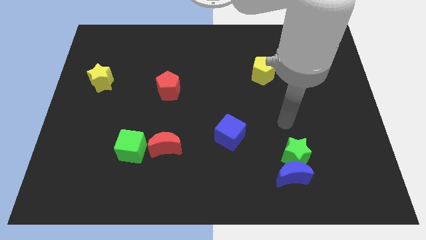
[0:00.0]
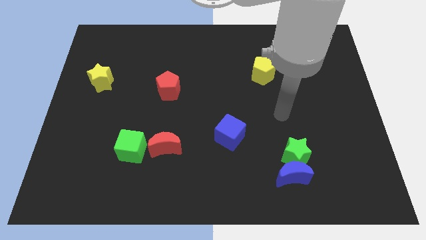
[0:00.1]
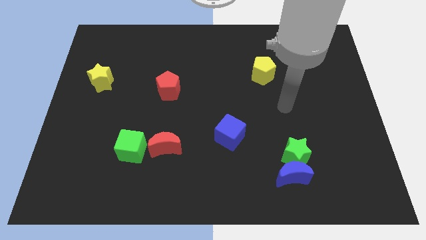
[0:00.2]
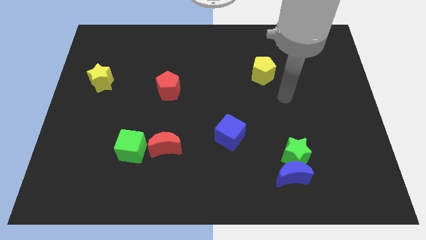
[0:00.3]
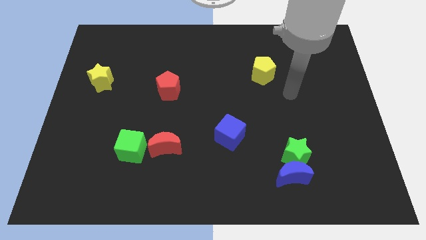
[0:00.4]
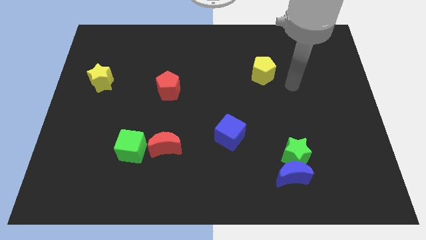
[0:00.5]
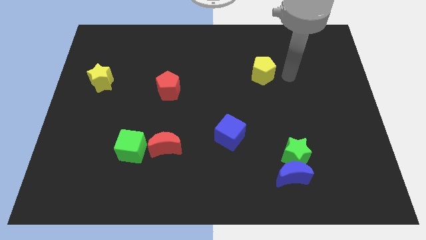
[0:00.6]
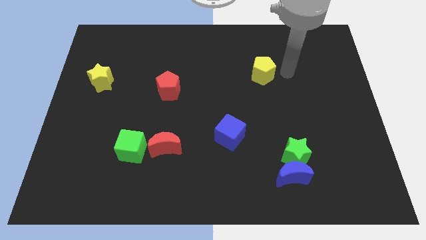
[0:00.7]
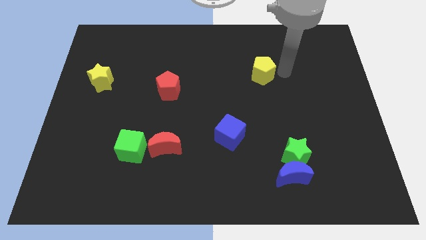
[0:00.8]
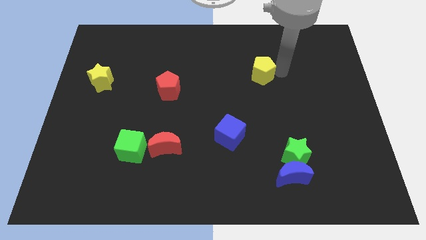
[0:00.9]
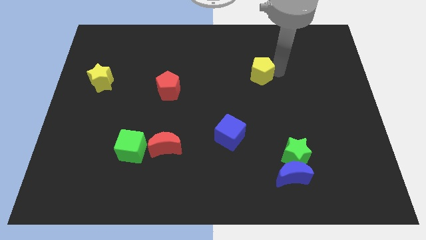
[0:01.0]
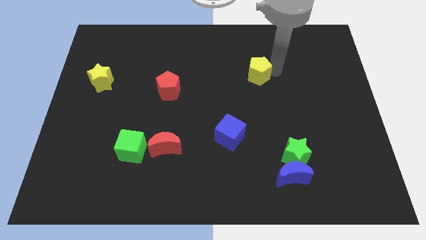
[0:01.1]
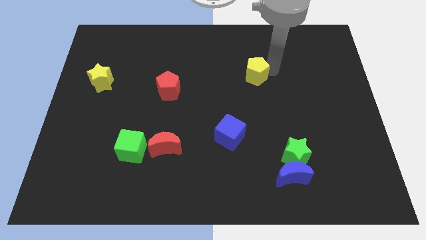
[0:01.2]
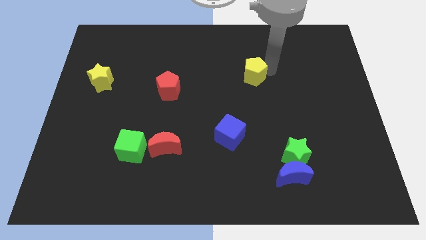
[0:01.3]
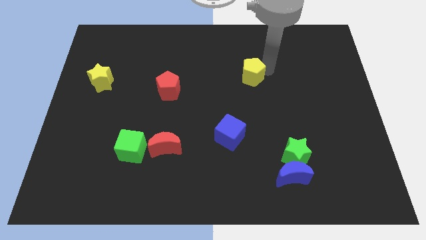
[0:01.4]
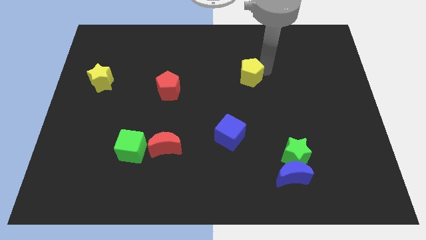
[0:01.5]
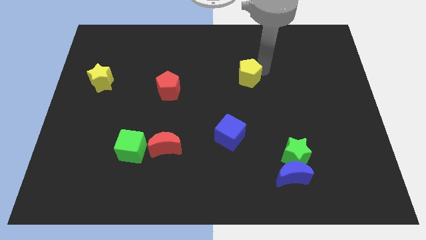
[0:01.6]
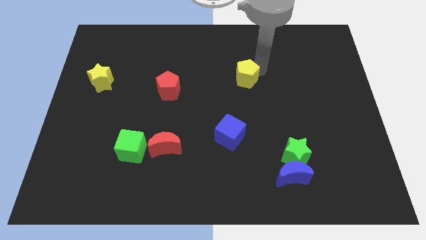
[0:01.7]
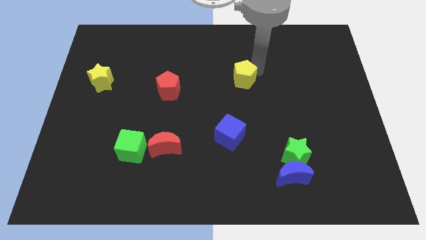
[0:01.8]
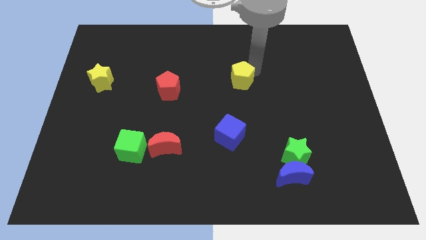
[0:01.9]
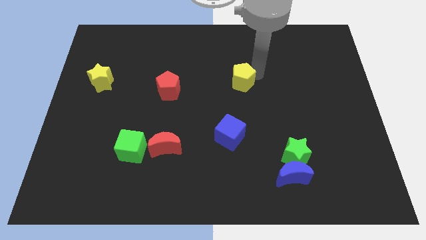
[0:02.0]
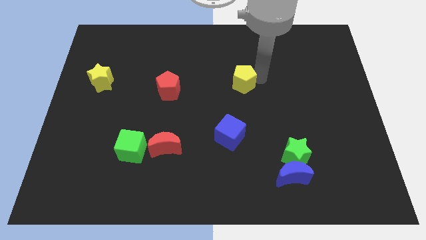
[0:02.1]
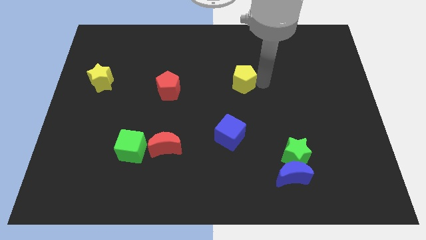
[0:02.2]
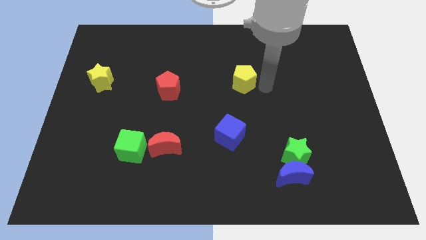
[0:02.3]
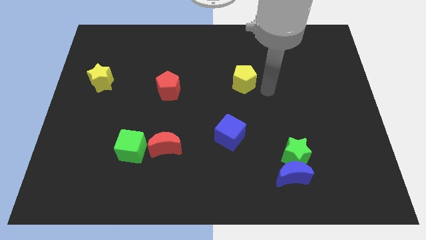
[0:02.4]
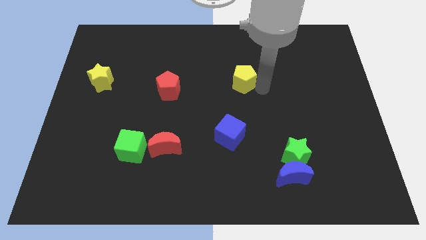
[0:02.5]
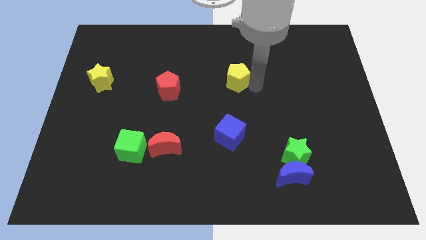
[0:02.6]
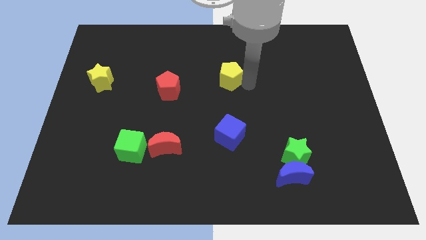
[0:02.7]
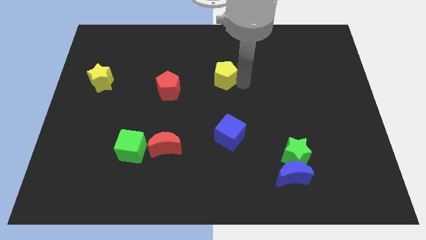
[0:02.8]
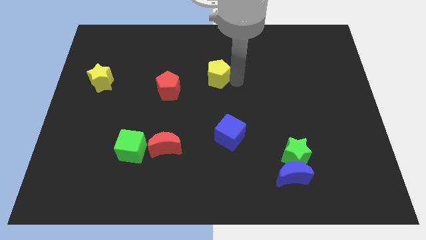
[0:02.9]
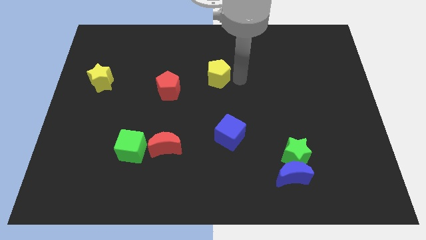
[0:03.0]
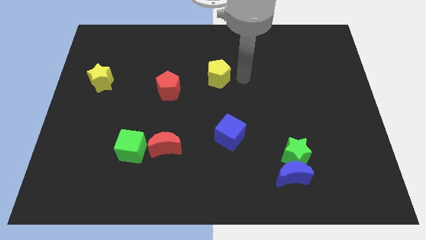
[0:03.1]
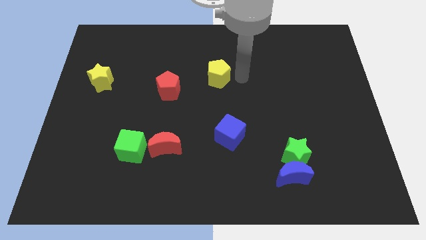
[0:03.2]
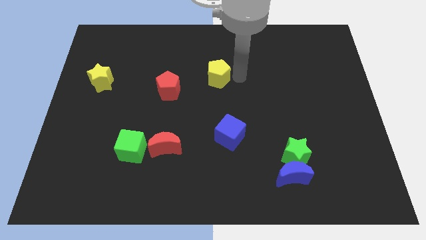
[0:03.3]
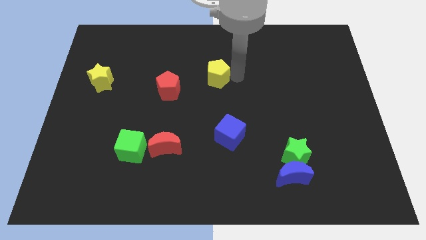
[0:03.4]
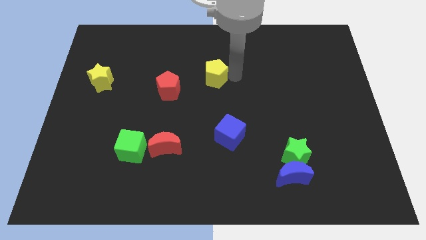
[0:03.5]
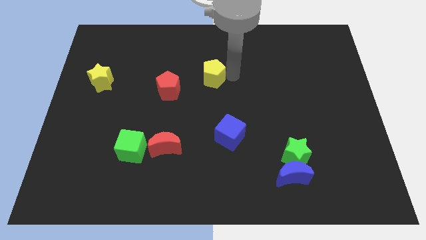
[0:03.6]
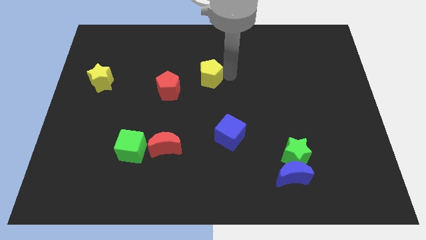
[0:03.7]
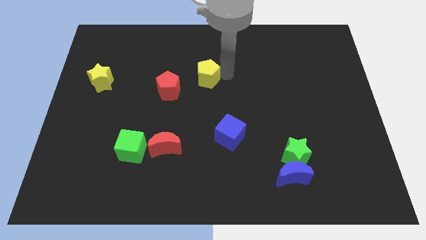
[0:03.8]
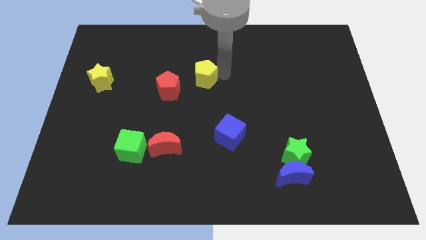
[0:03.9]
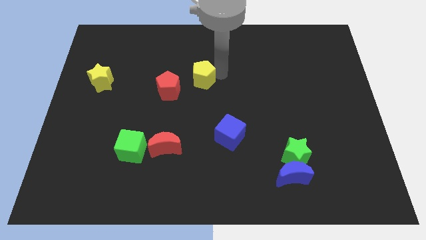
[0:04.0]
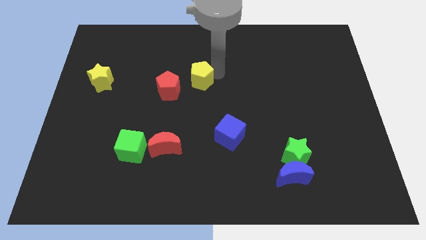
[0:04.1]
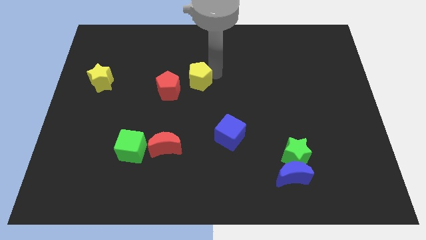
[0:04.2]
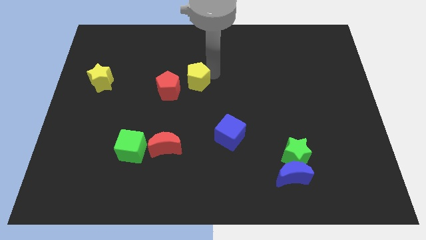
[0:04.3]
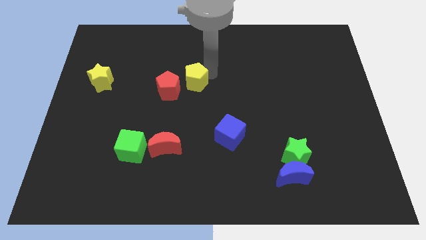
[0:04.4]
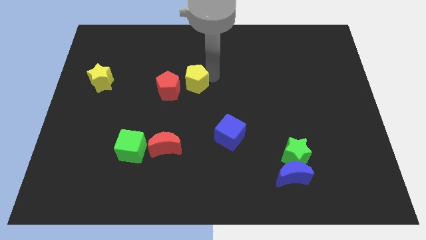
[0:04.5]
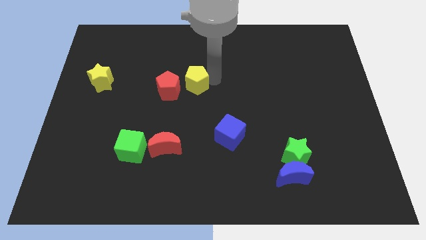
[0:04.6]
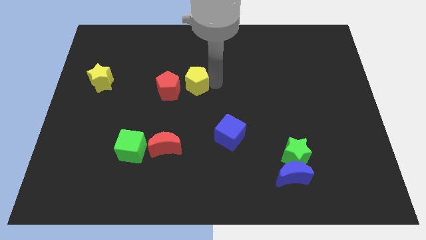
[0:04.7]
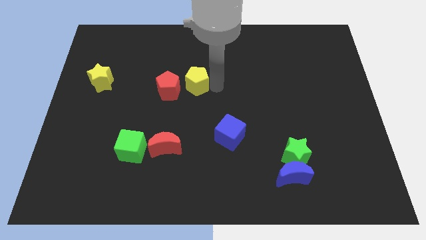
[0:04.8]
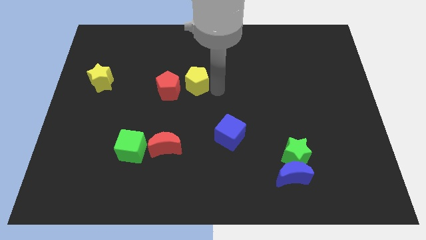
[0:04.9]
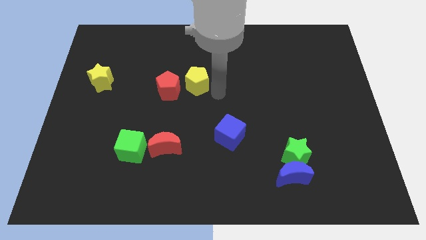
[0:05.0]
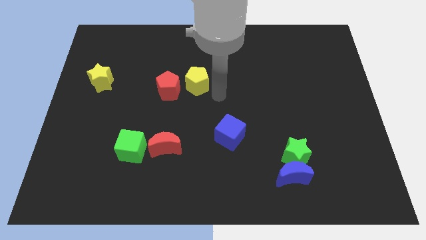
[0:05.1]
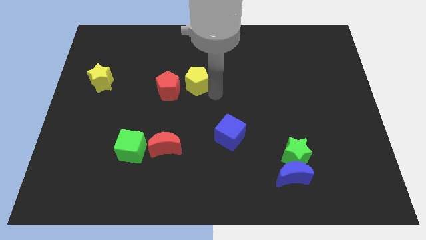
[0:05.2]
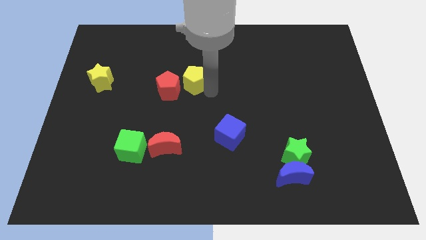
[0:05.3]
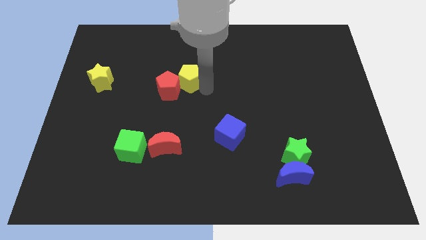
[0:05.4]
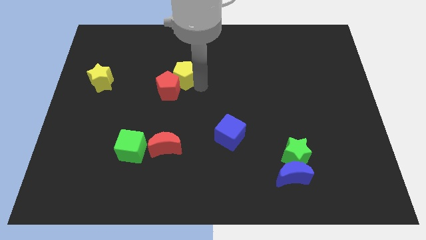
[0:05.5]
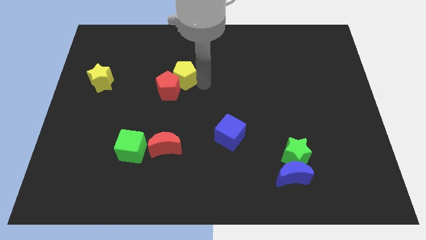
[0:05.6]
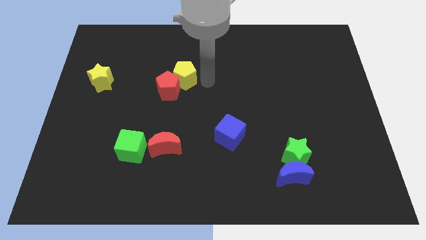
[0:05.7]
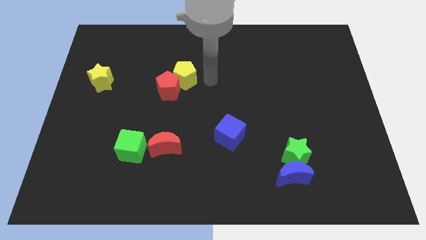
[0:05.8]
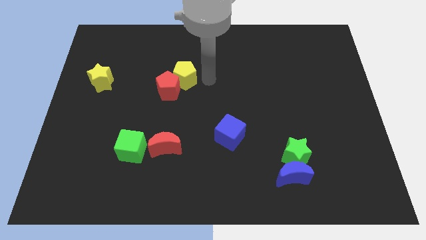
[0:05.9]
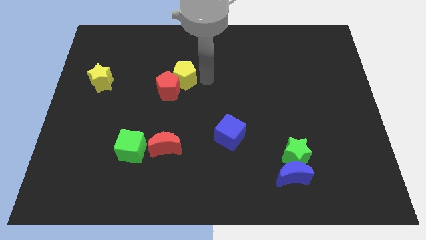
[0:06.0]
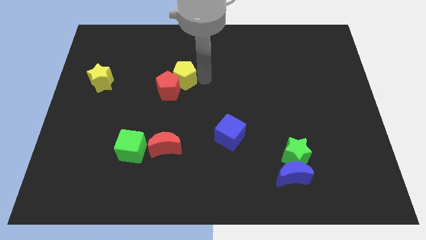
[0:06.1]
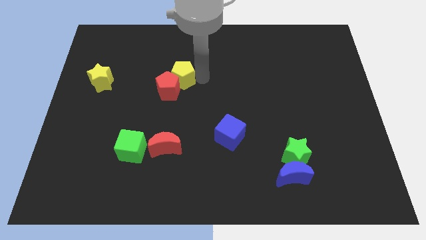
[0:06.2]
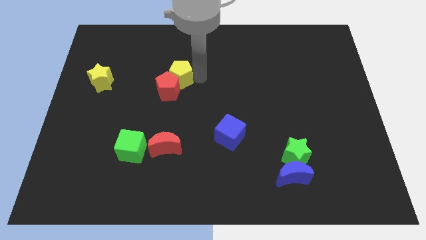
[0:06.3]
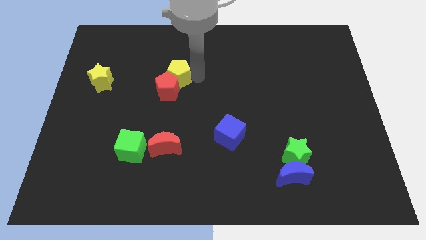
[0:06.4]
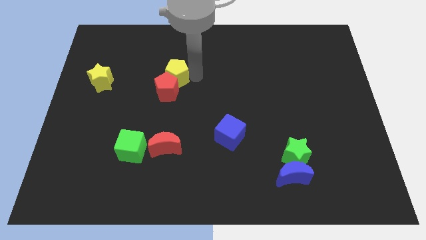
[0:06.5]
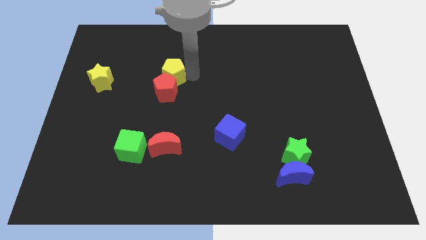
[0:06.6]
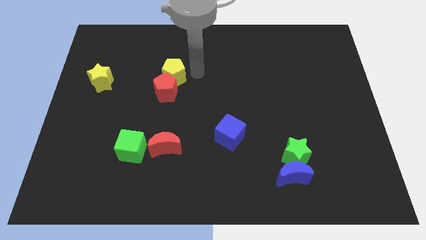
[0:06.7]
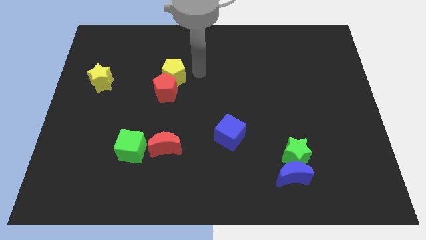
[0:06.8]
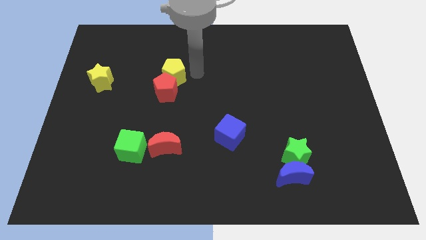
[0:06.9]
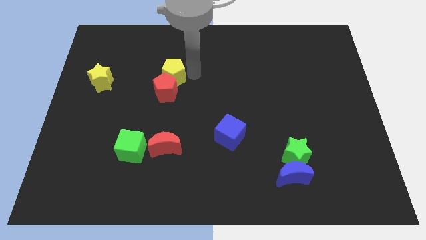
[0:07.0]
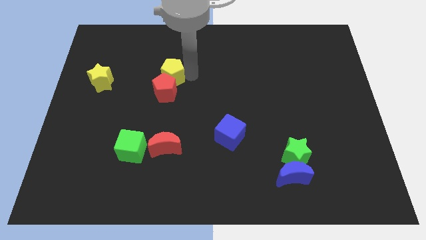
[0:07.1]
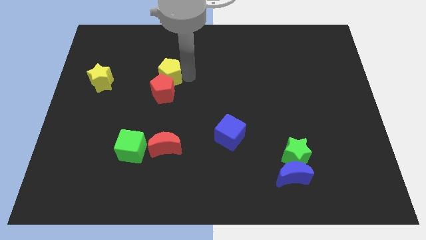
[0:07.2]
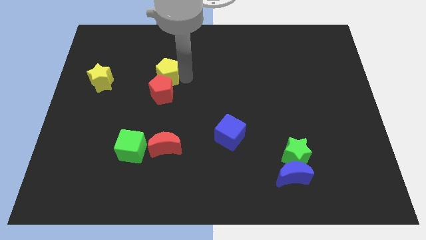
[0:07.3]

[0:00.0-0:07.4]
push the yellow pentagon to the right of the yellow star
